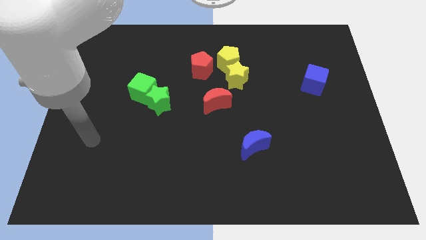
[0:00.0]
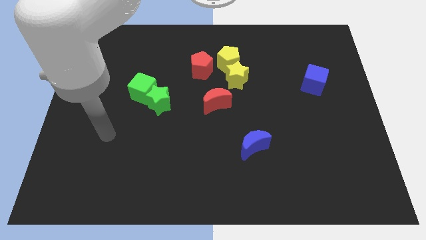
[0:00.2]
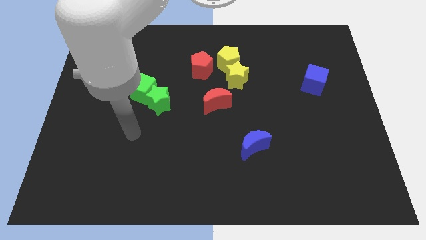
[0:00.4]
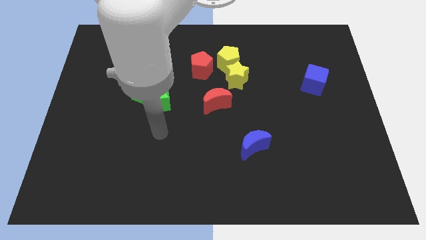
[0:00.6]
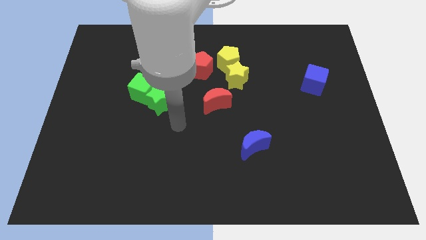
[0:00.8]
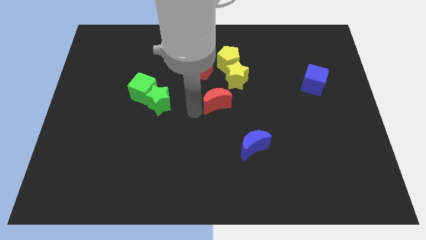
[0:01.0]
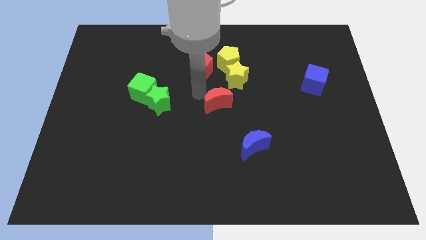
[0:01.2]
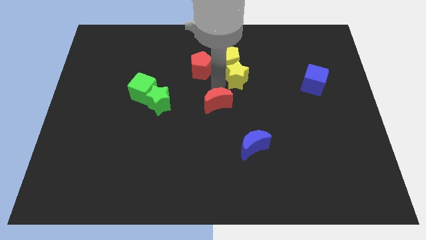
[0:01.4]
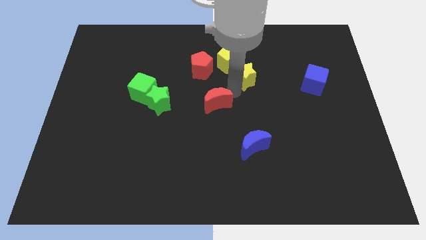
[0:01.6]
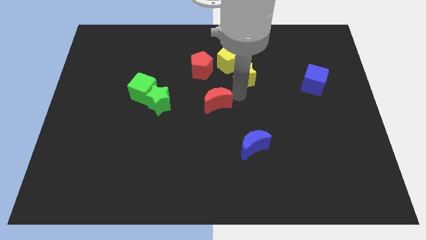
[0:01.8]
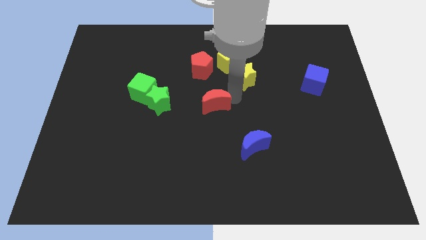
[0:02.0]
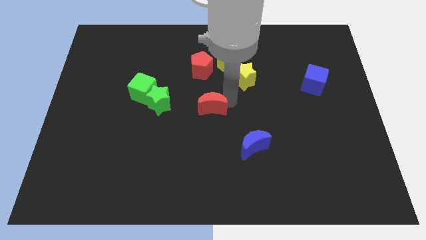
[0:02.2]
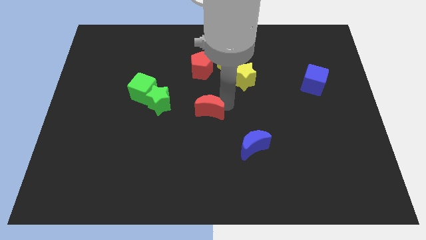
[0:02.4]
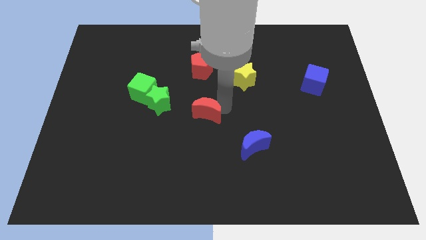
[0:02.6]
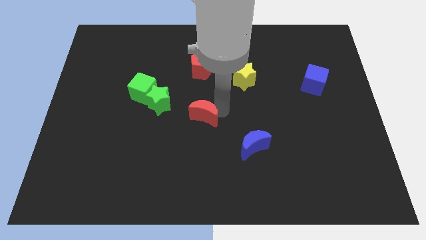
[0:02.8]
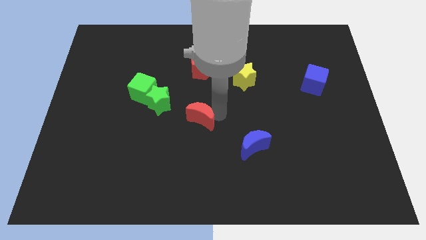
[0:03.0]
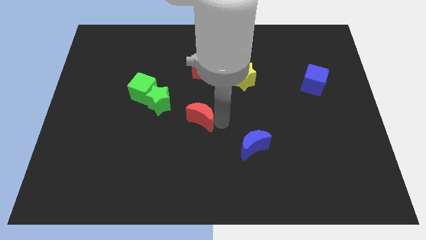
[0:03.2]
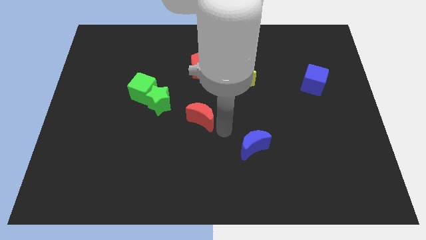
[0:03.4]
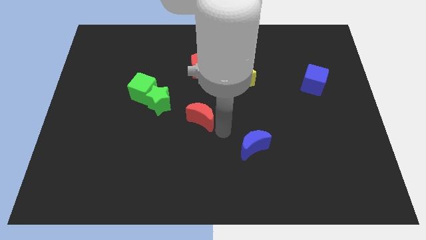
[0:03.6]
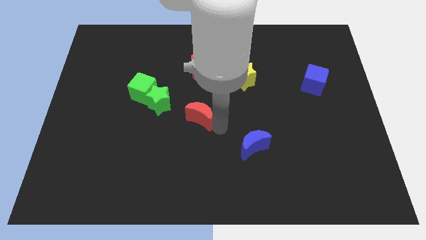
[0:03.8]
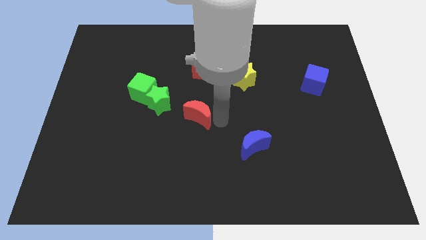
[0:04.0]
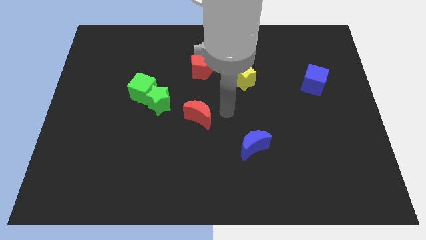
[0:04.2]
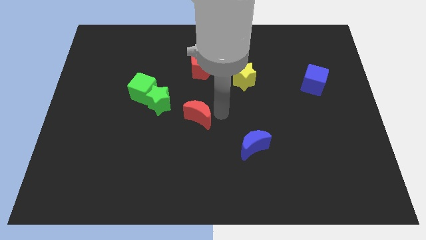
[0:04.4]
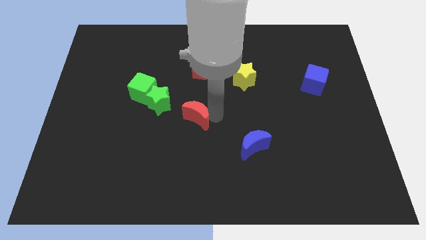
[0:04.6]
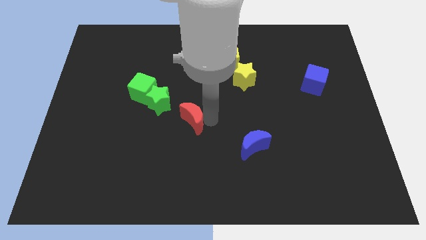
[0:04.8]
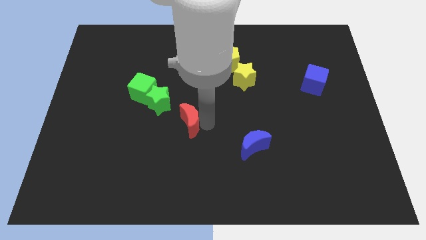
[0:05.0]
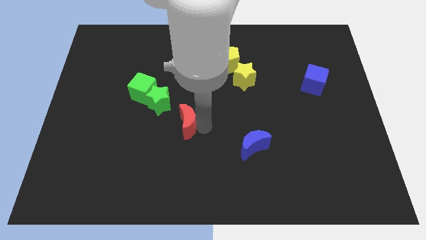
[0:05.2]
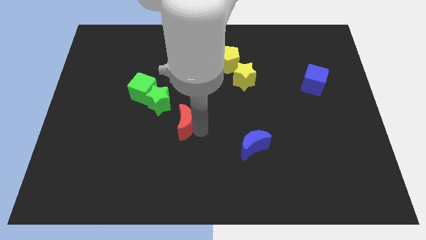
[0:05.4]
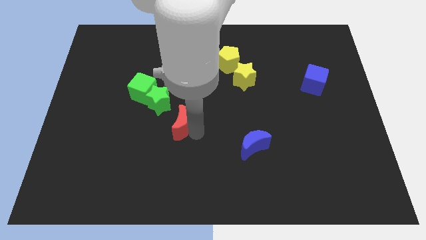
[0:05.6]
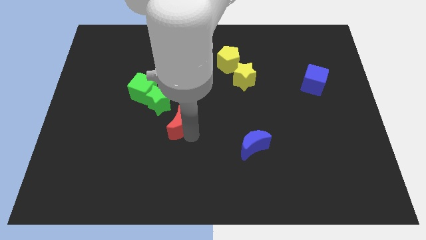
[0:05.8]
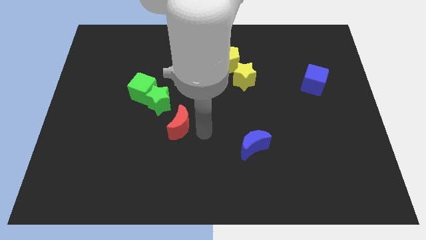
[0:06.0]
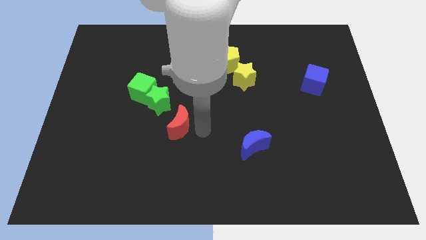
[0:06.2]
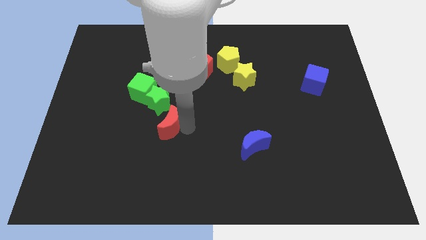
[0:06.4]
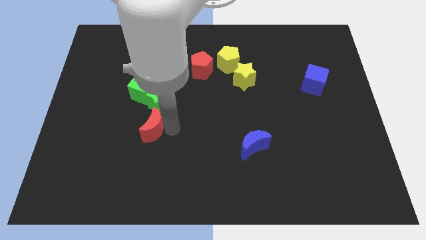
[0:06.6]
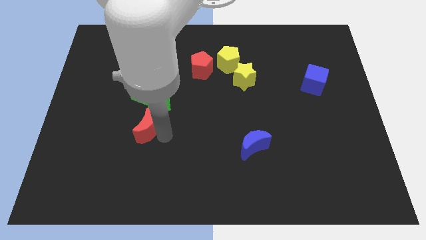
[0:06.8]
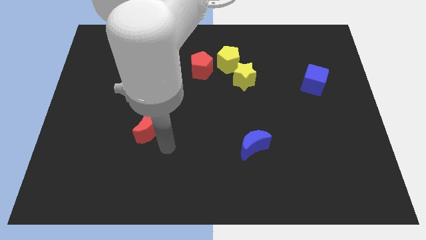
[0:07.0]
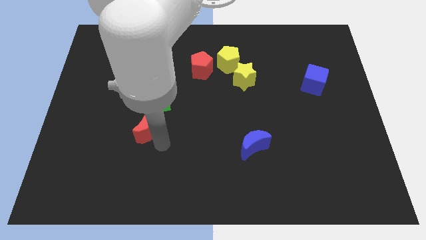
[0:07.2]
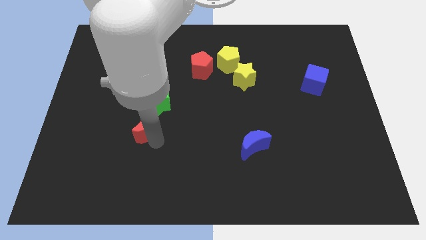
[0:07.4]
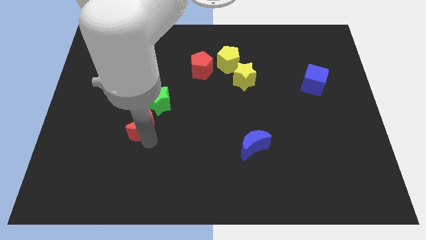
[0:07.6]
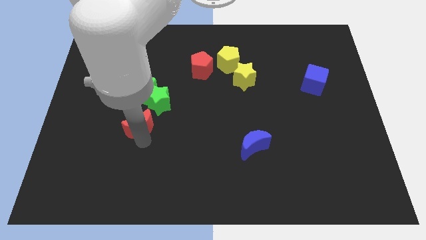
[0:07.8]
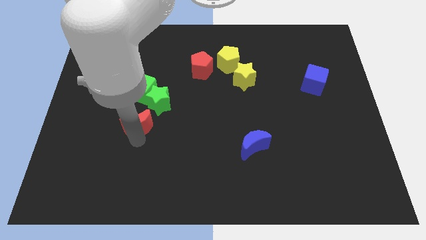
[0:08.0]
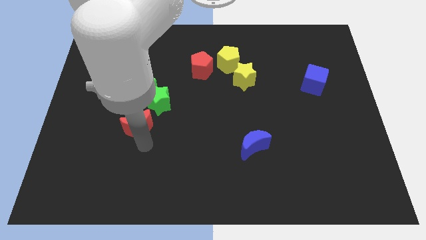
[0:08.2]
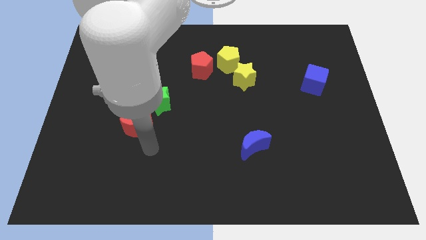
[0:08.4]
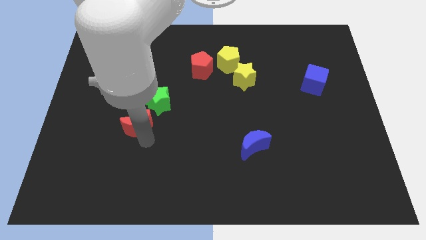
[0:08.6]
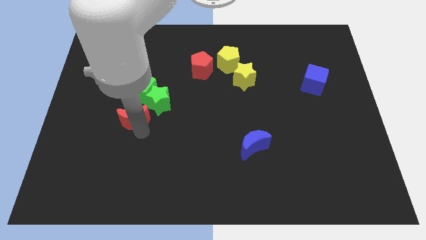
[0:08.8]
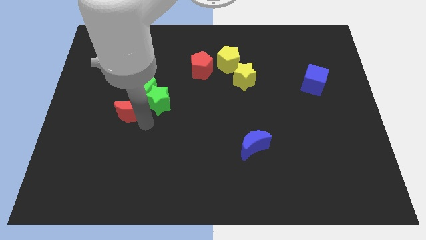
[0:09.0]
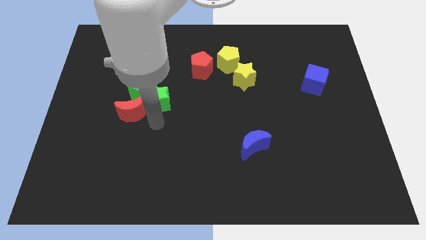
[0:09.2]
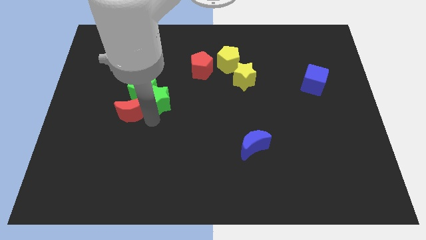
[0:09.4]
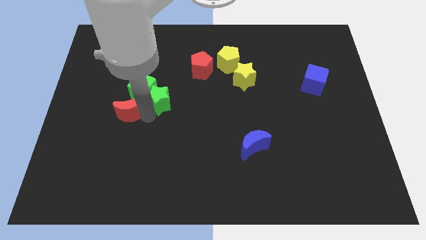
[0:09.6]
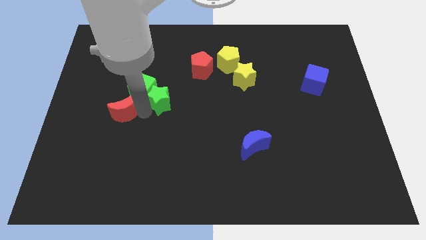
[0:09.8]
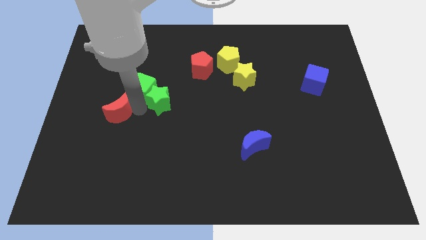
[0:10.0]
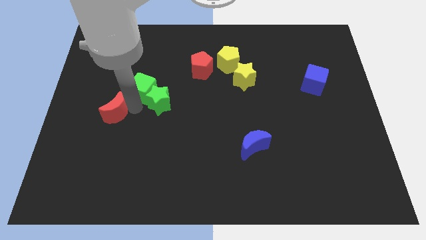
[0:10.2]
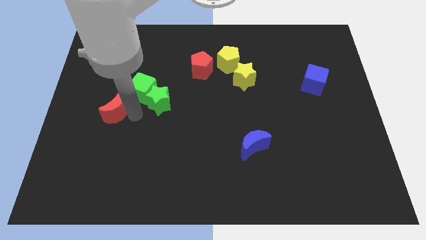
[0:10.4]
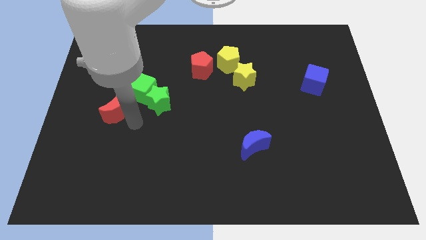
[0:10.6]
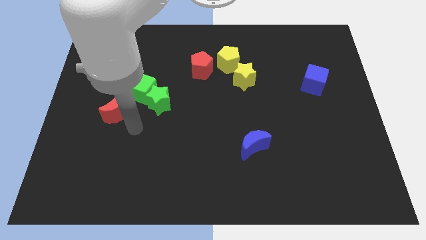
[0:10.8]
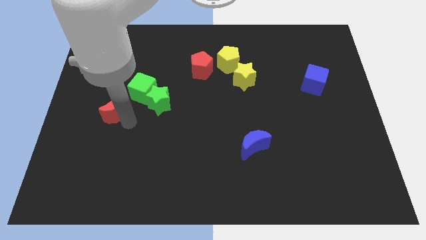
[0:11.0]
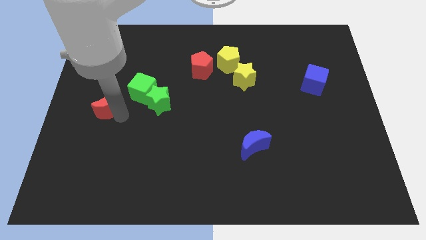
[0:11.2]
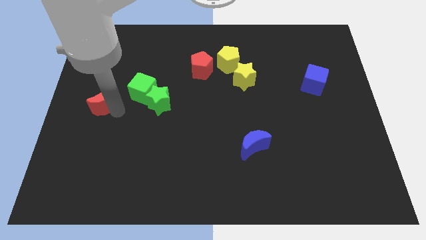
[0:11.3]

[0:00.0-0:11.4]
put the red moon to the center left

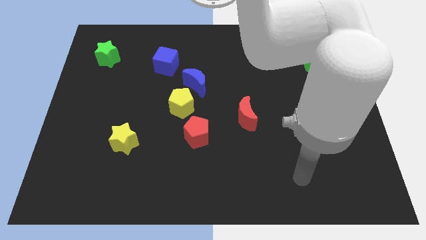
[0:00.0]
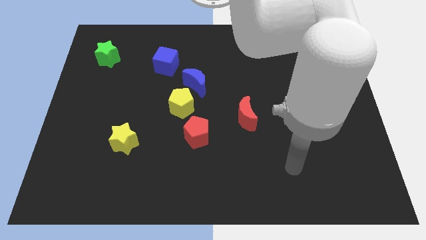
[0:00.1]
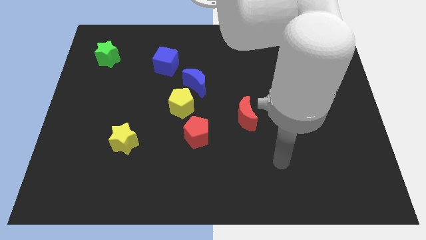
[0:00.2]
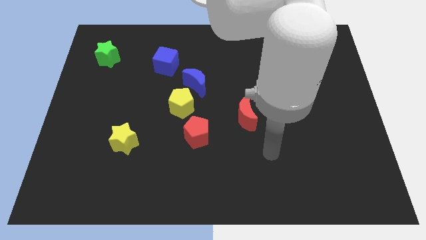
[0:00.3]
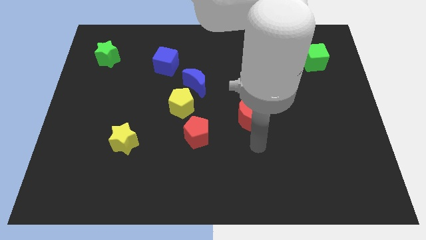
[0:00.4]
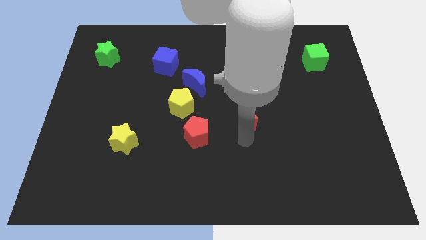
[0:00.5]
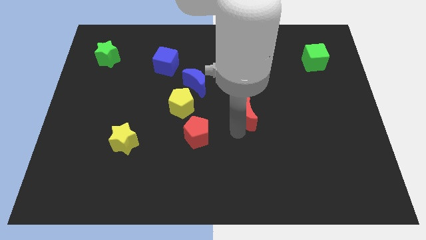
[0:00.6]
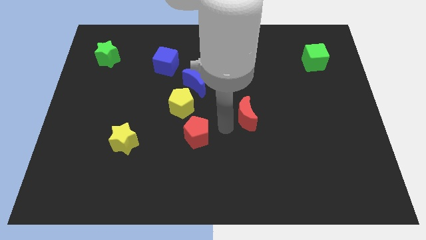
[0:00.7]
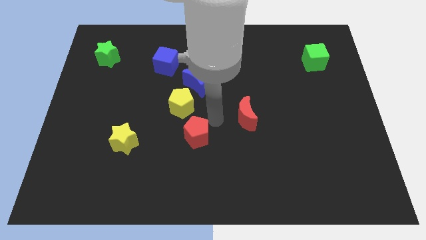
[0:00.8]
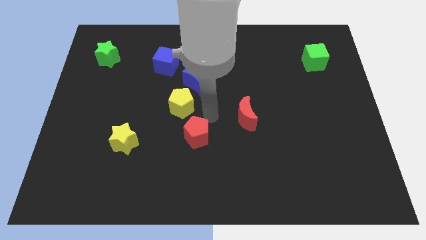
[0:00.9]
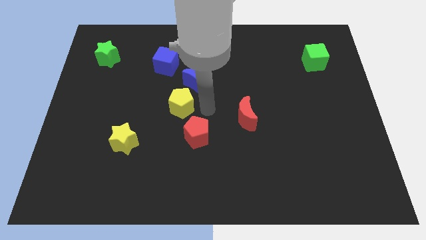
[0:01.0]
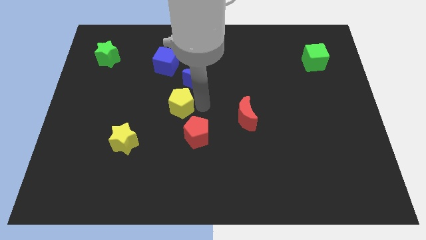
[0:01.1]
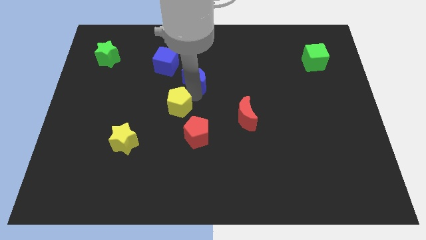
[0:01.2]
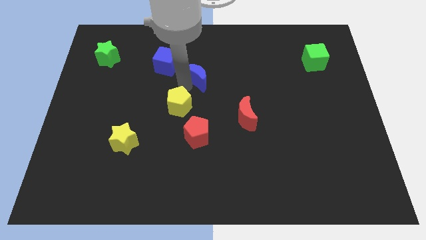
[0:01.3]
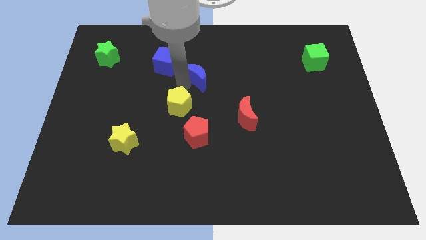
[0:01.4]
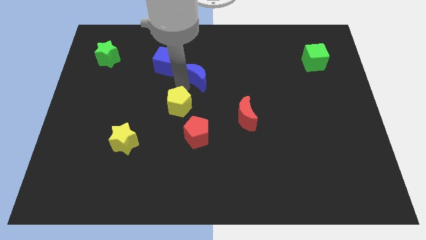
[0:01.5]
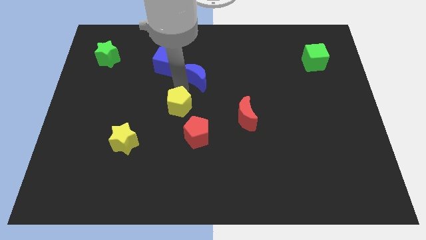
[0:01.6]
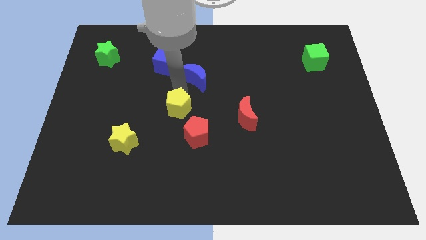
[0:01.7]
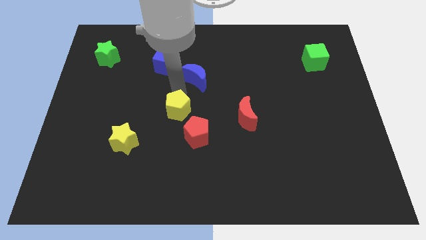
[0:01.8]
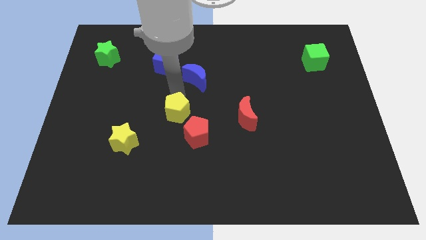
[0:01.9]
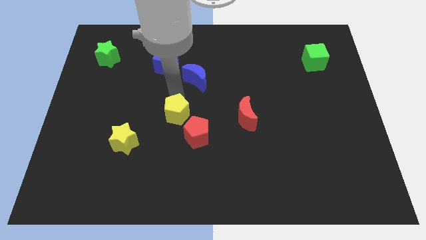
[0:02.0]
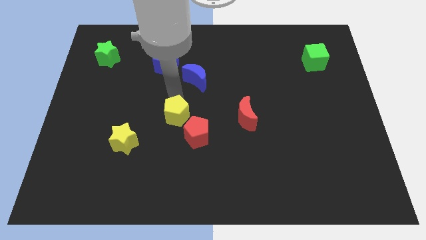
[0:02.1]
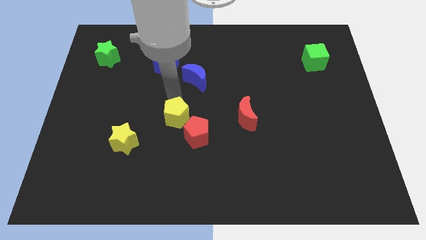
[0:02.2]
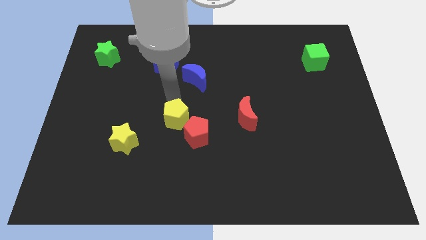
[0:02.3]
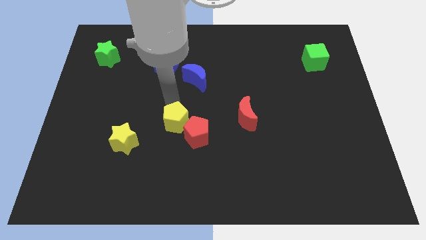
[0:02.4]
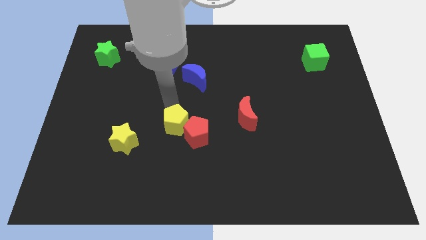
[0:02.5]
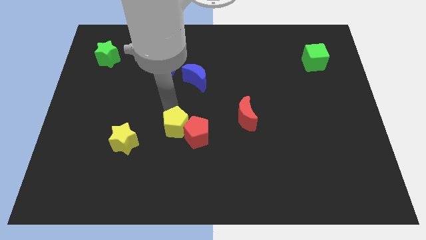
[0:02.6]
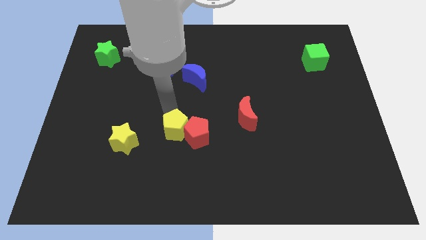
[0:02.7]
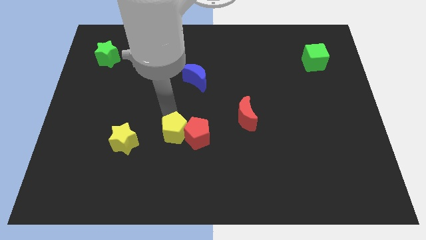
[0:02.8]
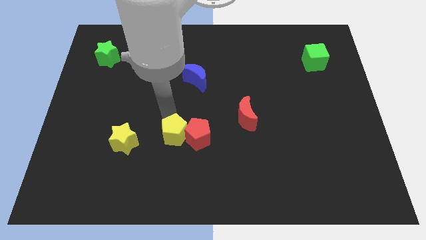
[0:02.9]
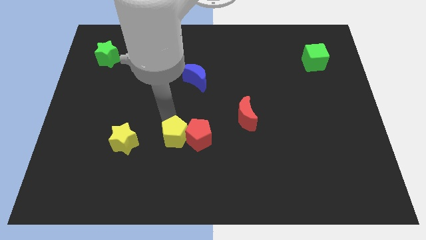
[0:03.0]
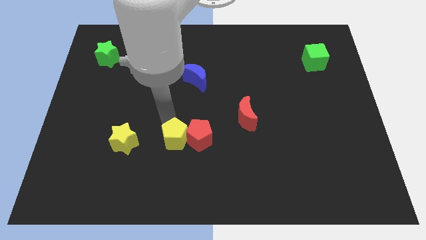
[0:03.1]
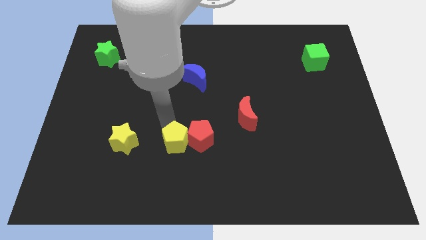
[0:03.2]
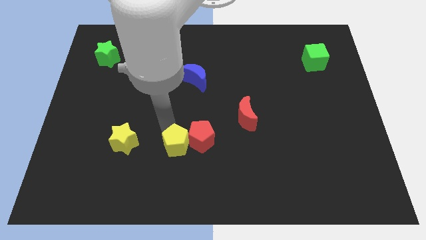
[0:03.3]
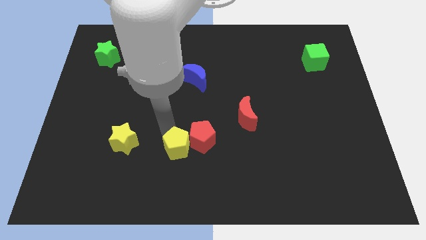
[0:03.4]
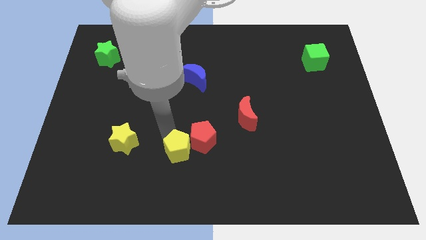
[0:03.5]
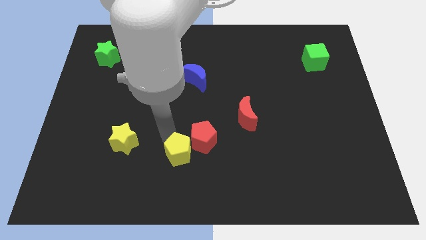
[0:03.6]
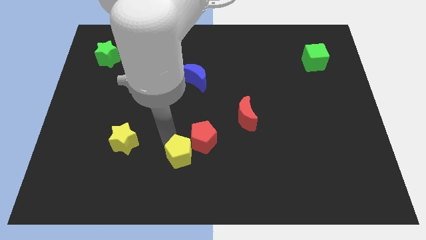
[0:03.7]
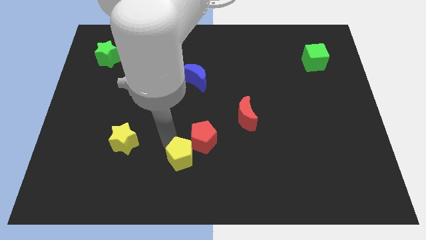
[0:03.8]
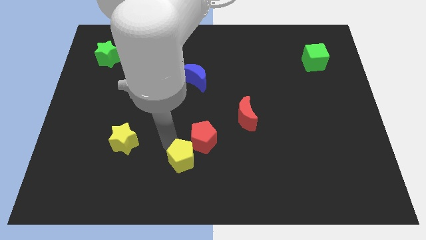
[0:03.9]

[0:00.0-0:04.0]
put the yellow pentagon to the bottom side
